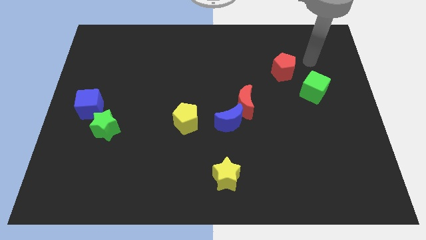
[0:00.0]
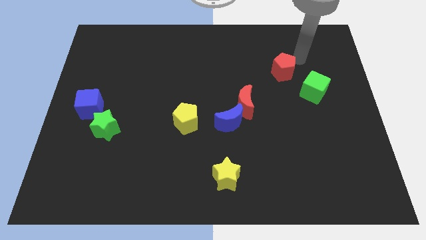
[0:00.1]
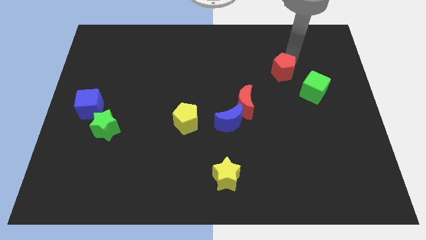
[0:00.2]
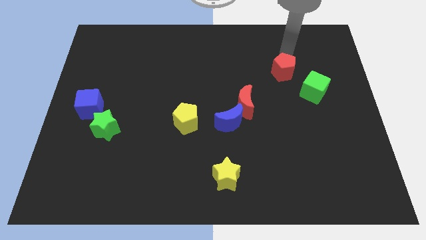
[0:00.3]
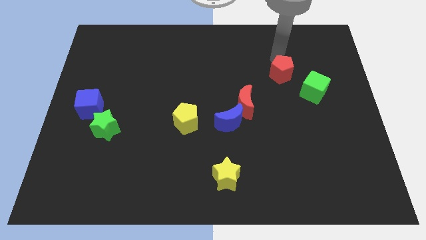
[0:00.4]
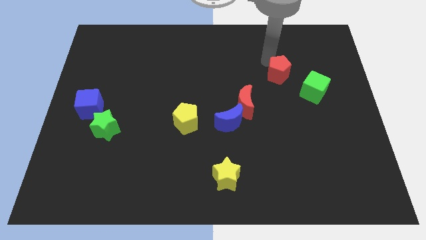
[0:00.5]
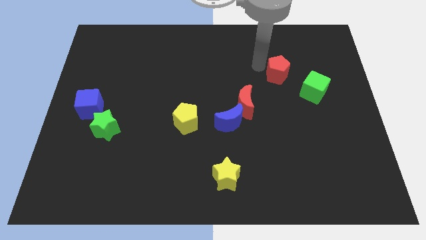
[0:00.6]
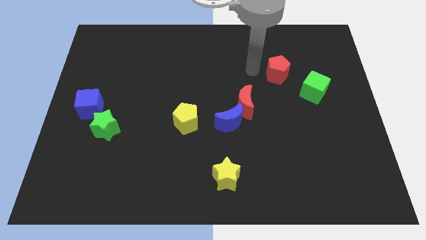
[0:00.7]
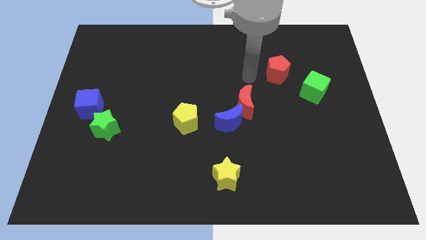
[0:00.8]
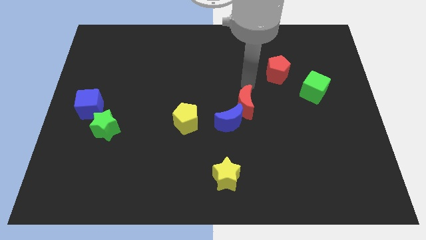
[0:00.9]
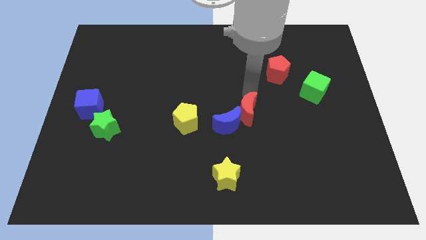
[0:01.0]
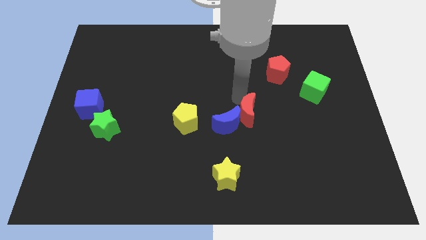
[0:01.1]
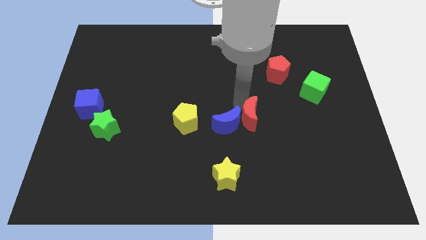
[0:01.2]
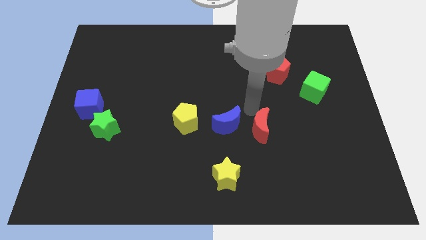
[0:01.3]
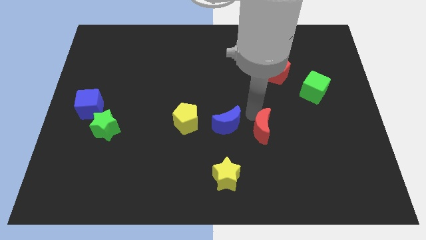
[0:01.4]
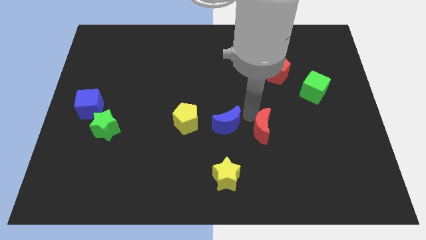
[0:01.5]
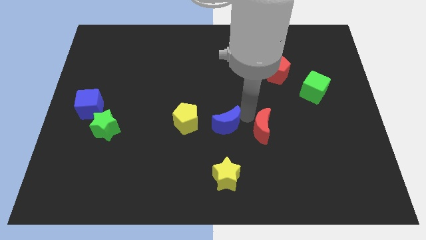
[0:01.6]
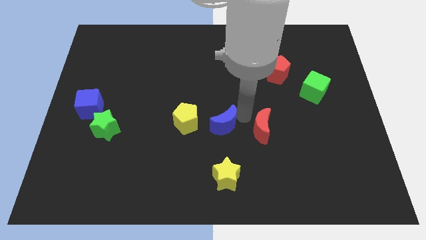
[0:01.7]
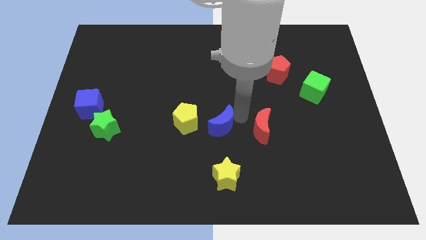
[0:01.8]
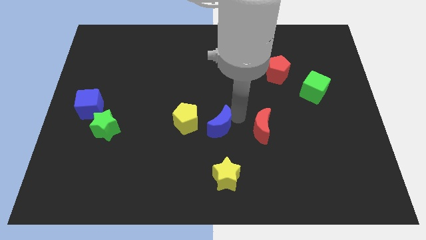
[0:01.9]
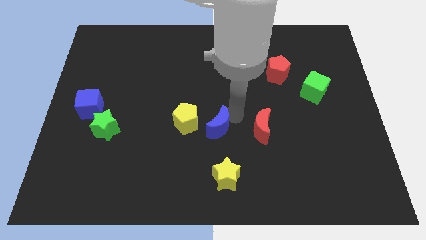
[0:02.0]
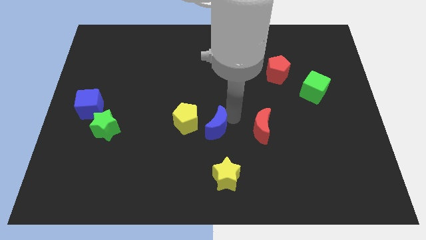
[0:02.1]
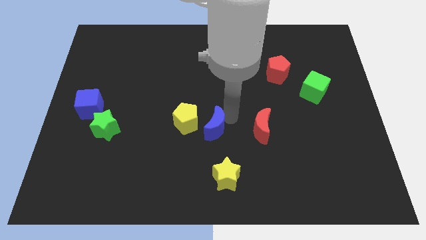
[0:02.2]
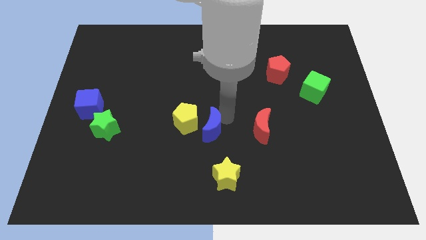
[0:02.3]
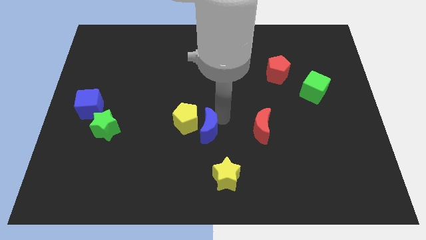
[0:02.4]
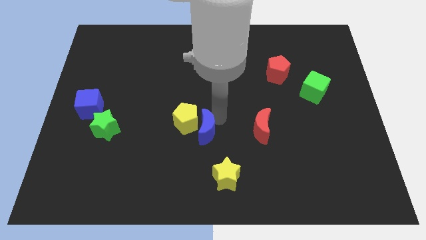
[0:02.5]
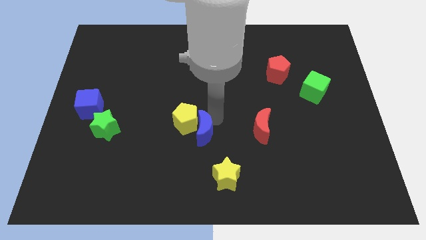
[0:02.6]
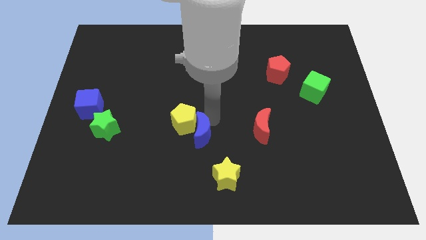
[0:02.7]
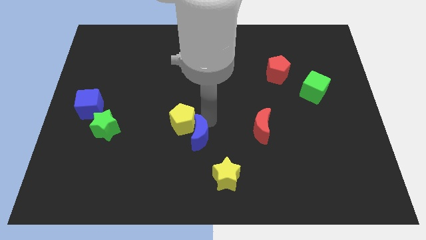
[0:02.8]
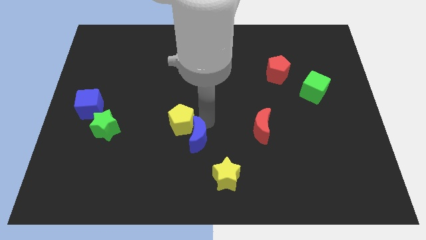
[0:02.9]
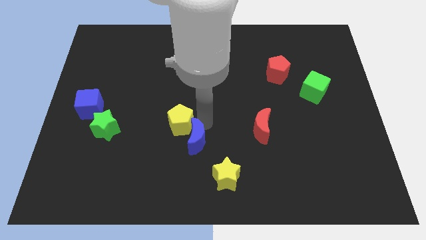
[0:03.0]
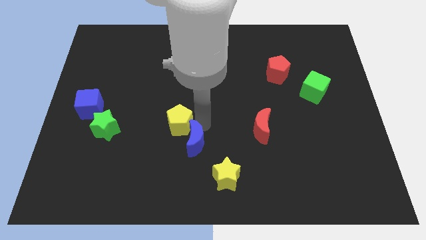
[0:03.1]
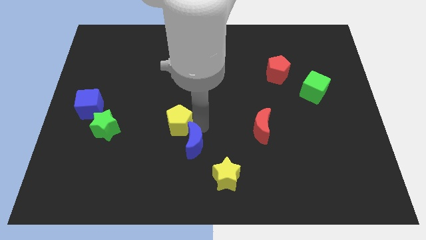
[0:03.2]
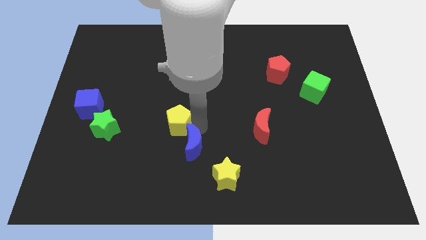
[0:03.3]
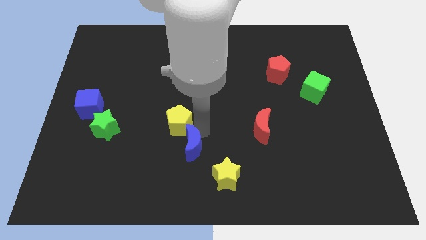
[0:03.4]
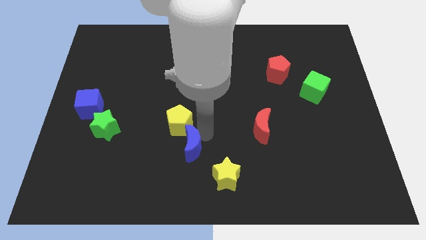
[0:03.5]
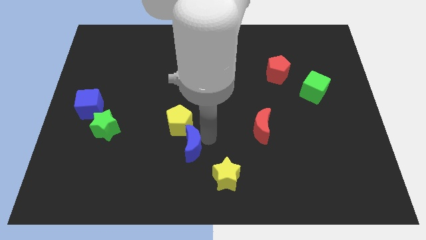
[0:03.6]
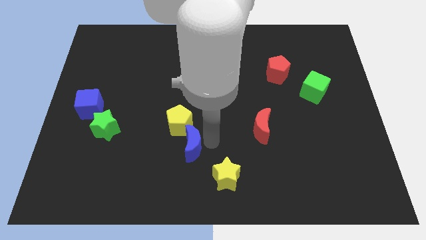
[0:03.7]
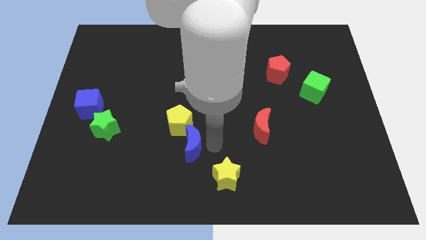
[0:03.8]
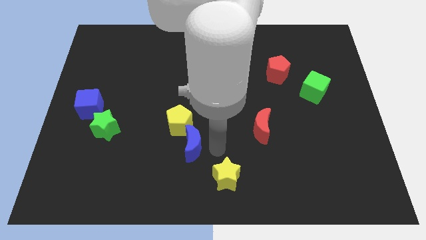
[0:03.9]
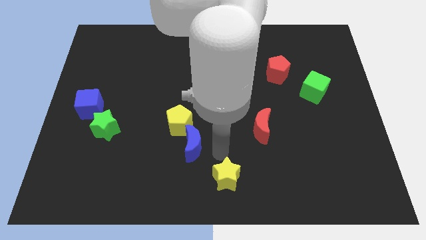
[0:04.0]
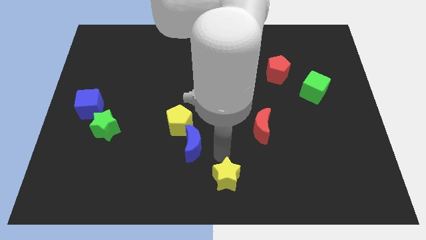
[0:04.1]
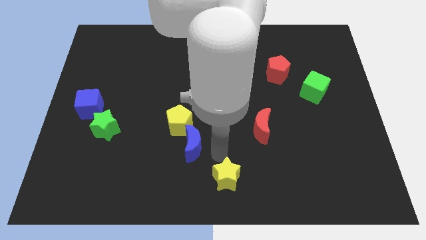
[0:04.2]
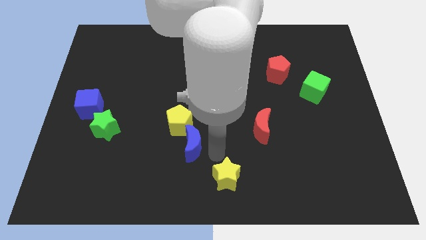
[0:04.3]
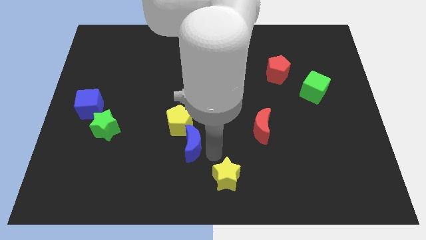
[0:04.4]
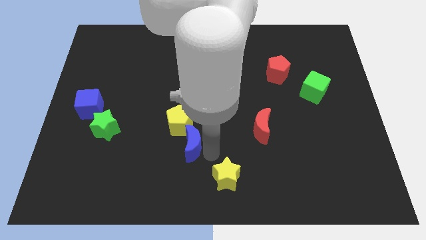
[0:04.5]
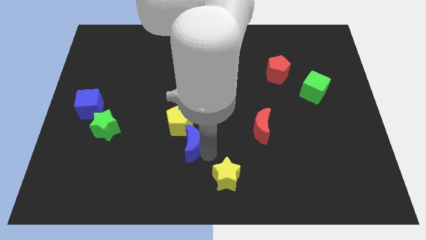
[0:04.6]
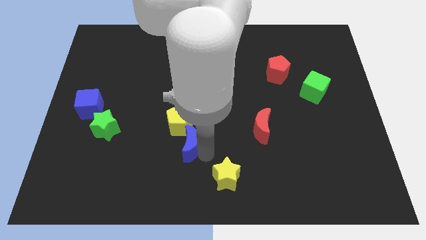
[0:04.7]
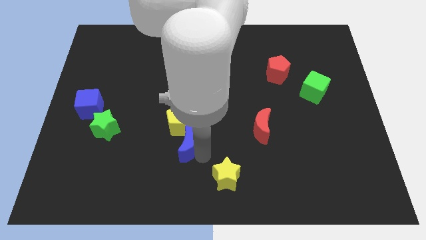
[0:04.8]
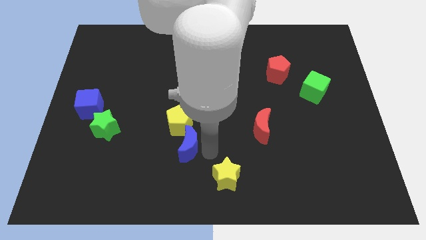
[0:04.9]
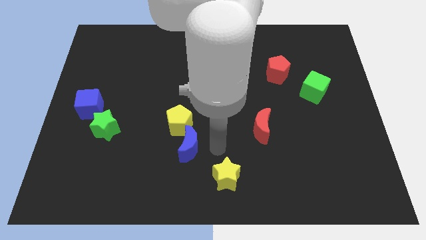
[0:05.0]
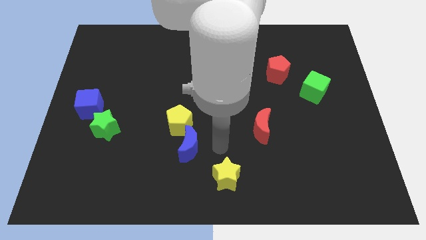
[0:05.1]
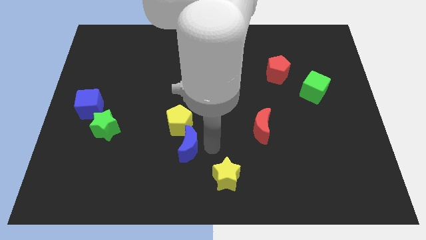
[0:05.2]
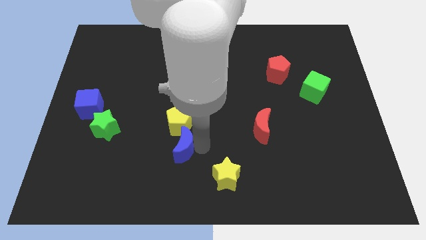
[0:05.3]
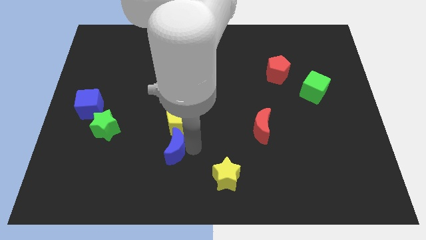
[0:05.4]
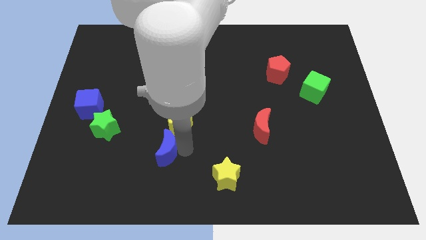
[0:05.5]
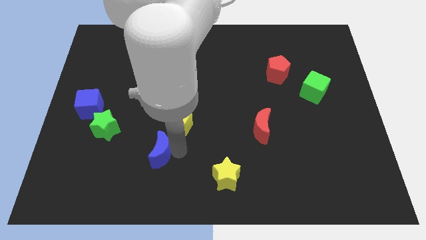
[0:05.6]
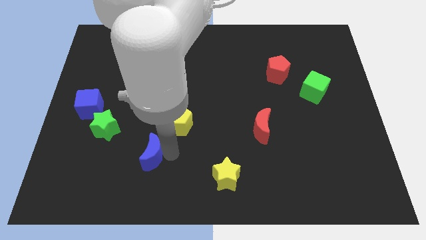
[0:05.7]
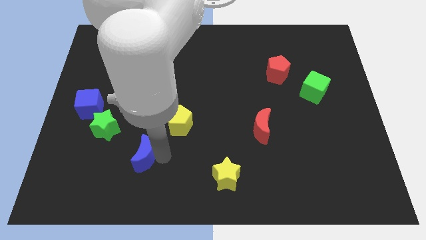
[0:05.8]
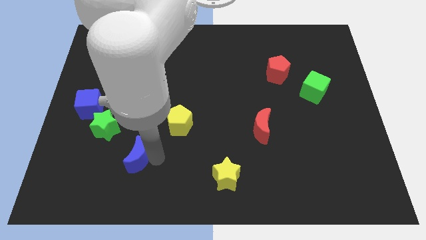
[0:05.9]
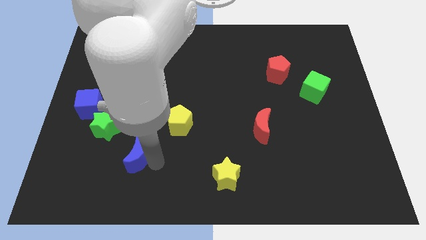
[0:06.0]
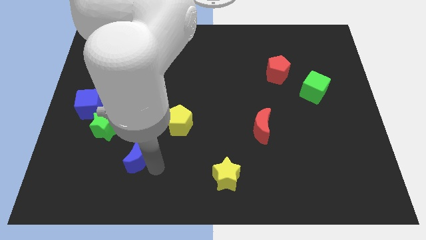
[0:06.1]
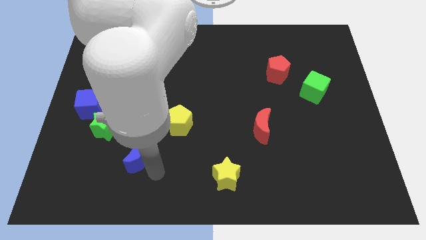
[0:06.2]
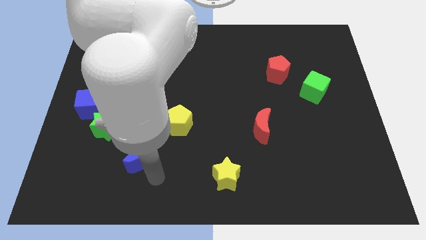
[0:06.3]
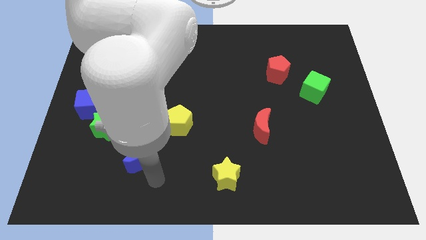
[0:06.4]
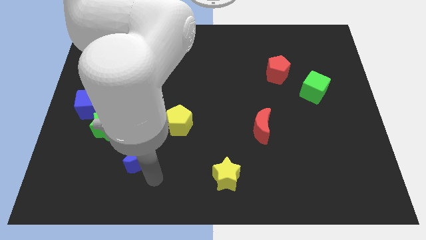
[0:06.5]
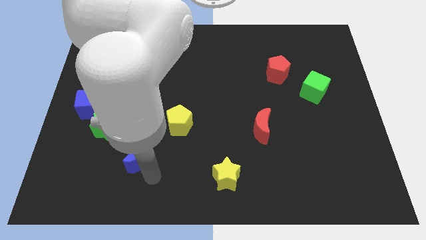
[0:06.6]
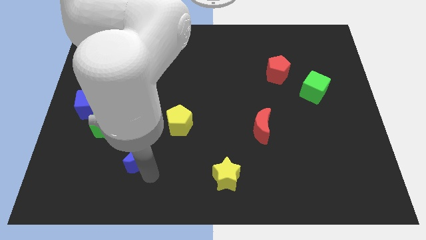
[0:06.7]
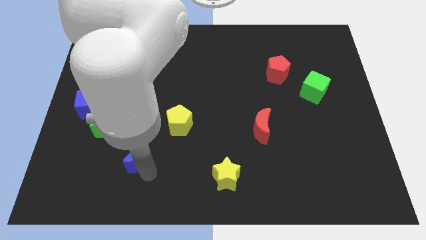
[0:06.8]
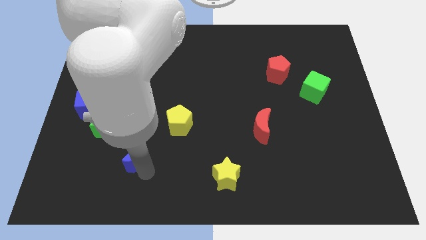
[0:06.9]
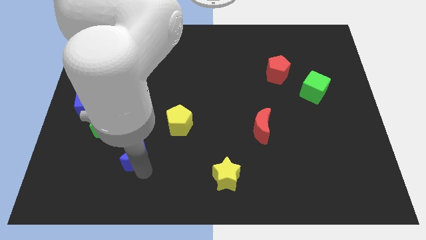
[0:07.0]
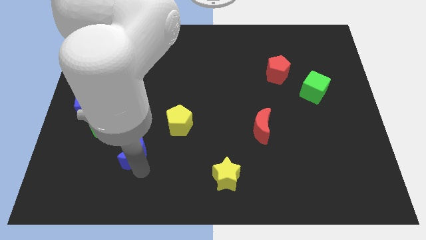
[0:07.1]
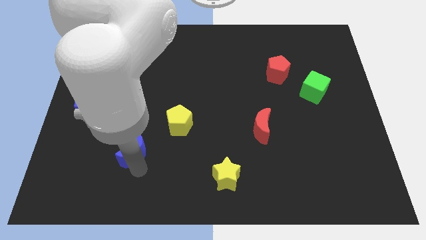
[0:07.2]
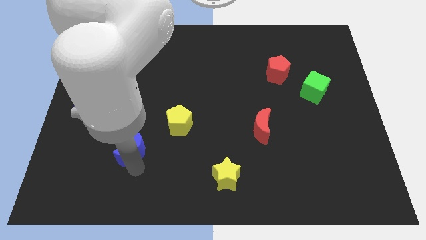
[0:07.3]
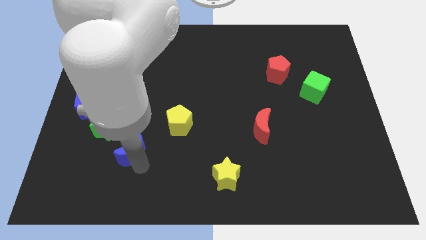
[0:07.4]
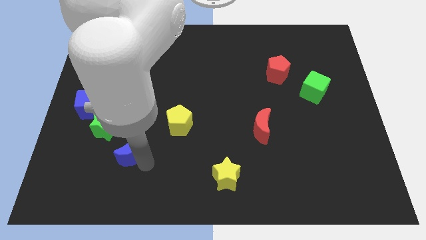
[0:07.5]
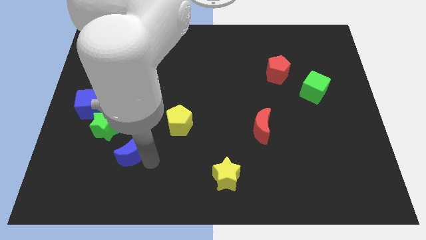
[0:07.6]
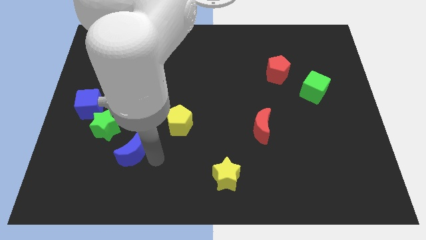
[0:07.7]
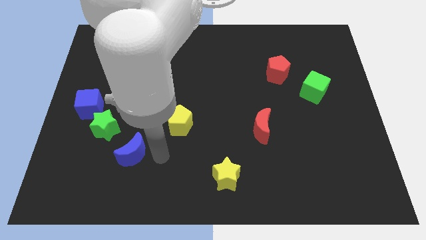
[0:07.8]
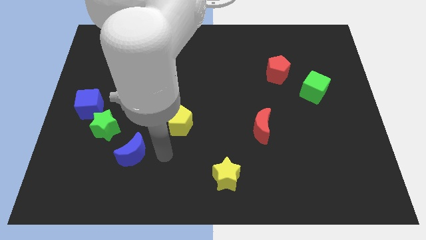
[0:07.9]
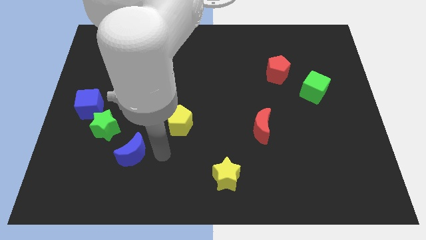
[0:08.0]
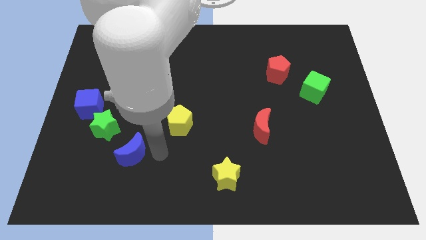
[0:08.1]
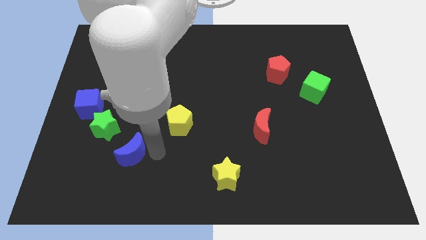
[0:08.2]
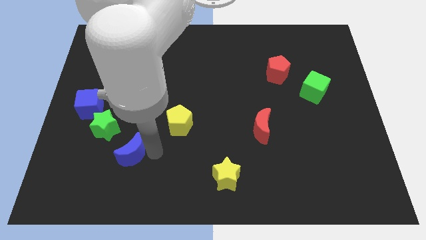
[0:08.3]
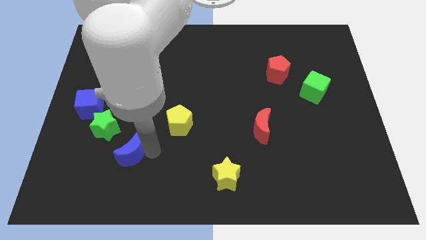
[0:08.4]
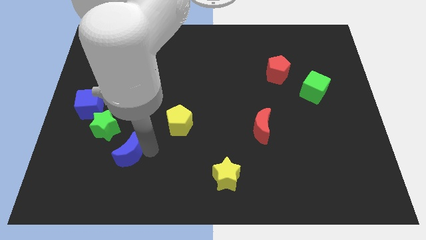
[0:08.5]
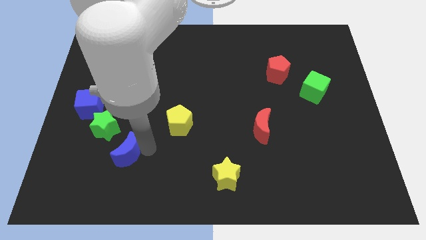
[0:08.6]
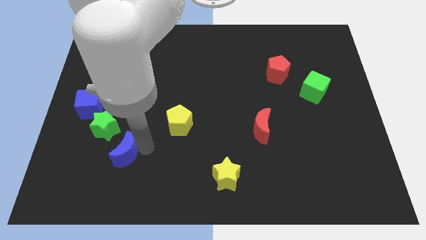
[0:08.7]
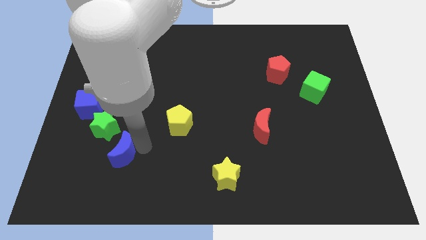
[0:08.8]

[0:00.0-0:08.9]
push the blue moon to the left
